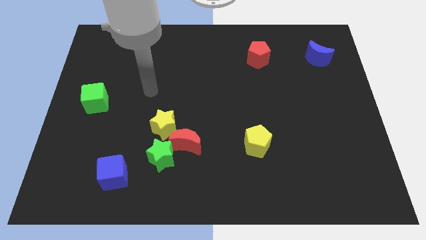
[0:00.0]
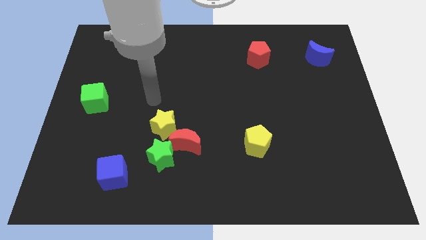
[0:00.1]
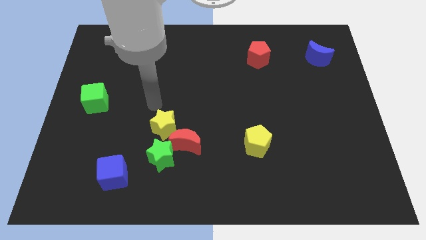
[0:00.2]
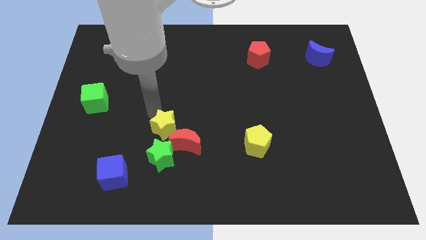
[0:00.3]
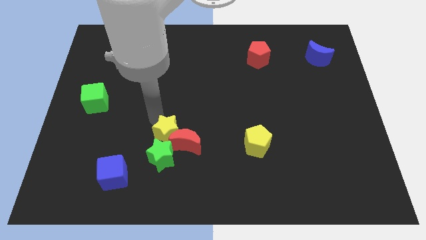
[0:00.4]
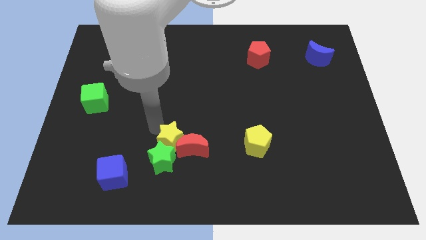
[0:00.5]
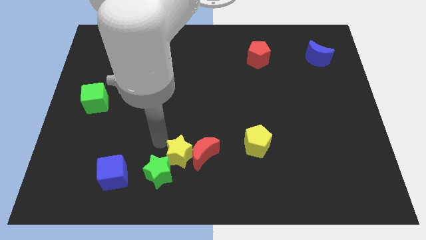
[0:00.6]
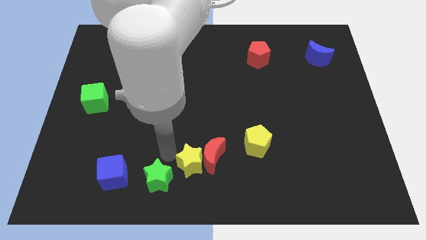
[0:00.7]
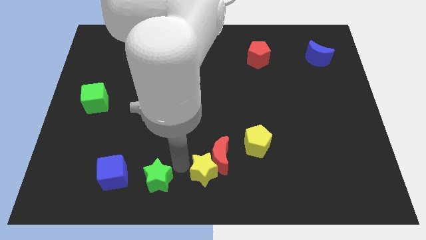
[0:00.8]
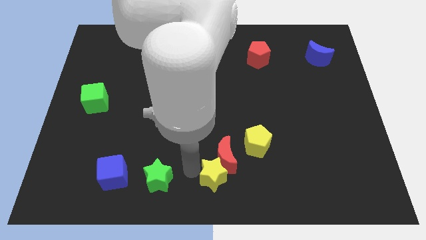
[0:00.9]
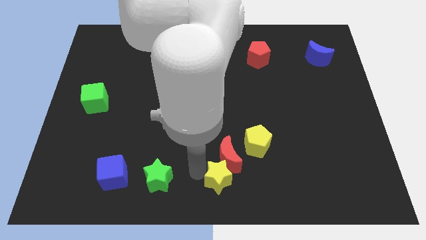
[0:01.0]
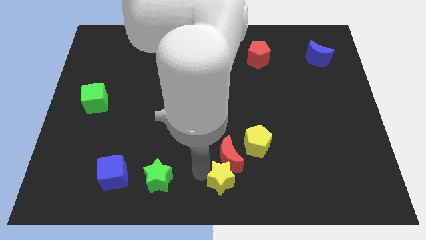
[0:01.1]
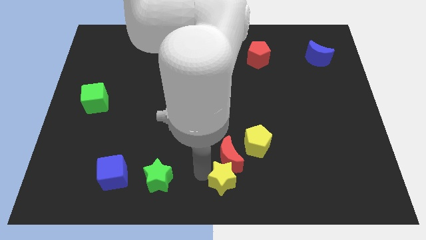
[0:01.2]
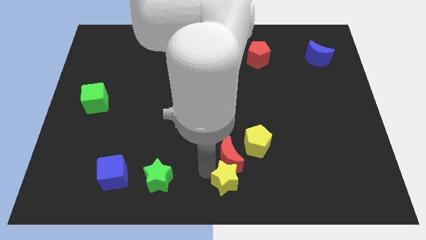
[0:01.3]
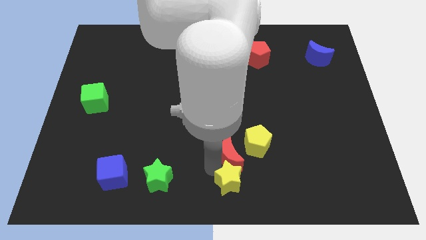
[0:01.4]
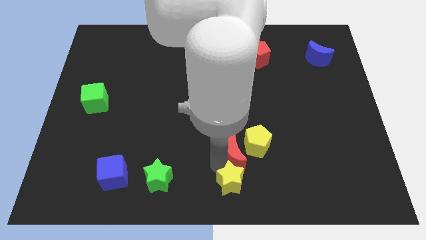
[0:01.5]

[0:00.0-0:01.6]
pull the red moon apart from the green star and yellow star

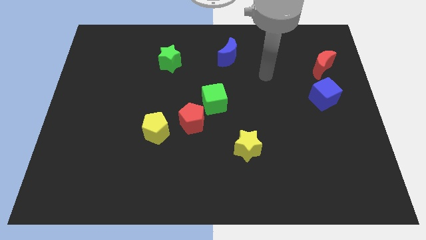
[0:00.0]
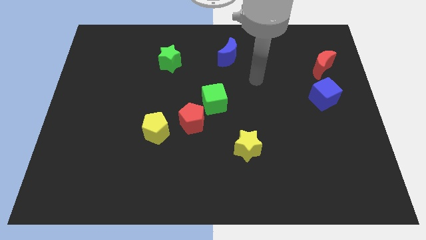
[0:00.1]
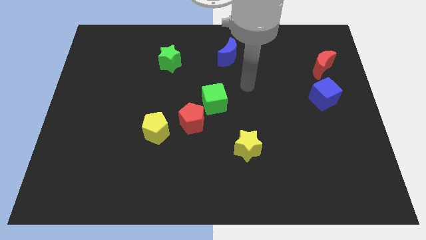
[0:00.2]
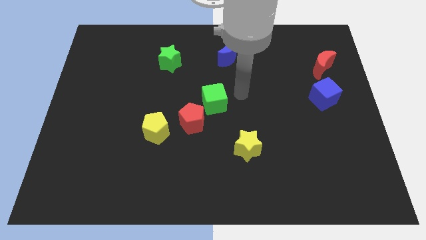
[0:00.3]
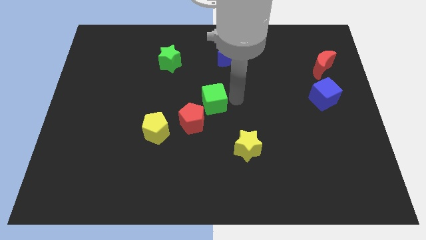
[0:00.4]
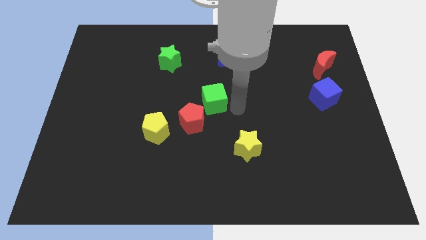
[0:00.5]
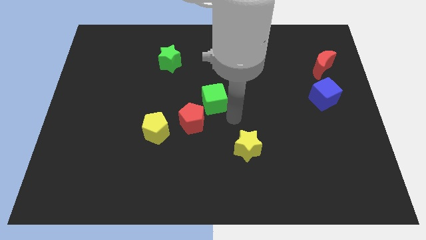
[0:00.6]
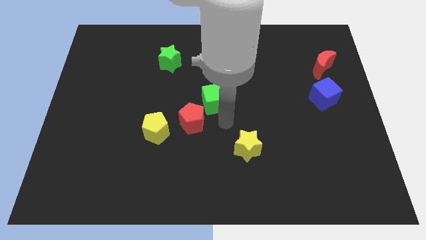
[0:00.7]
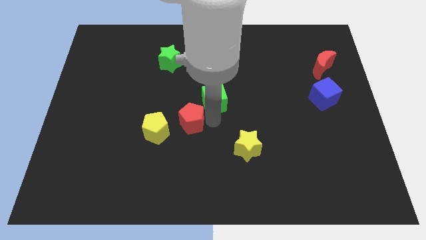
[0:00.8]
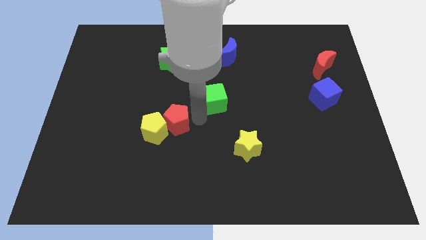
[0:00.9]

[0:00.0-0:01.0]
pull the green cube apart from the red pentagon

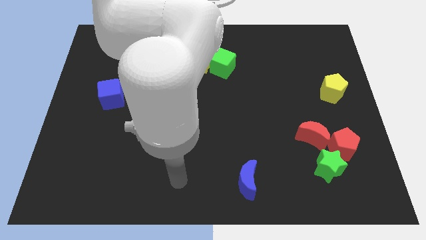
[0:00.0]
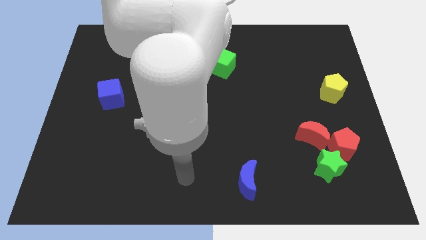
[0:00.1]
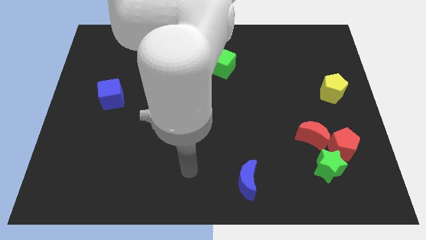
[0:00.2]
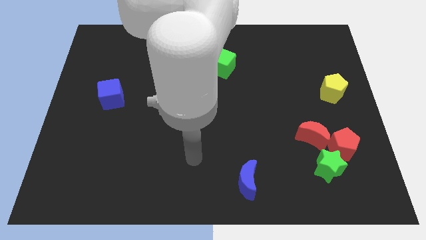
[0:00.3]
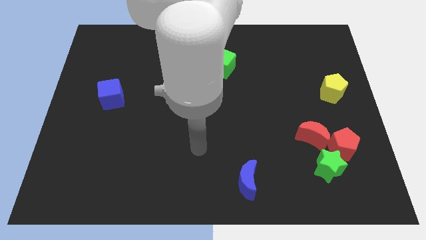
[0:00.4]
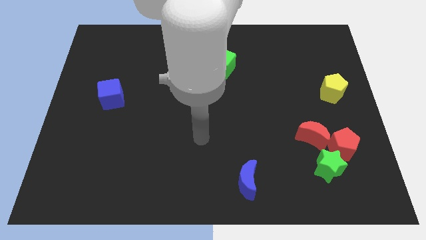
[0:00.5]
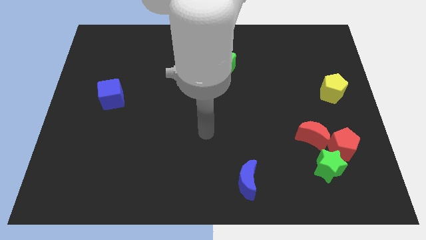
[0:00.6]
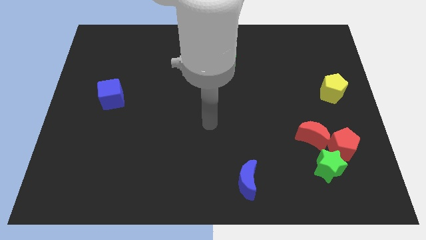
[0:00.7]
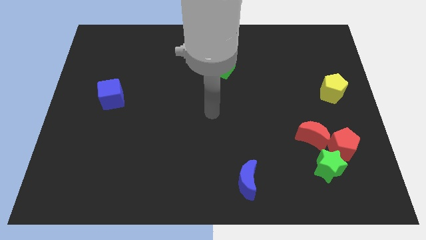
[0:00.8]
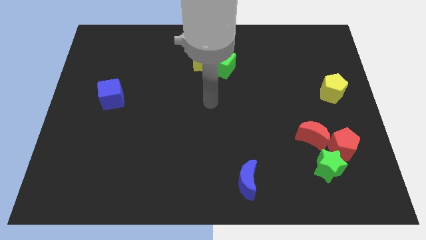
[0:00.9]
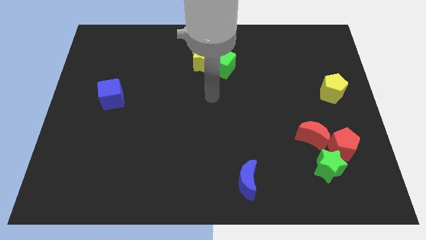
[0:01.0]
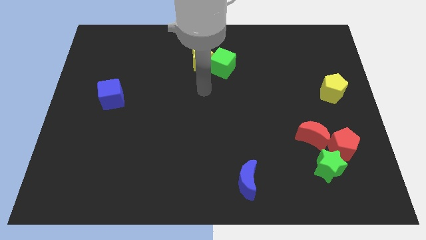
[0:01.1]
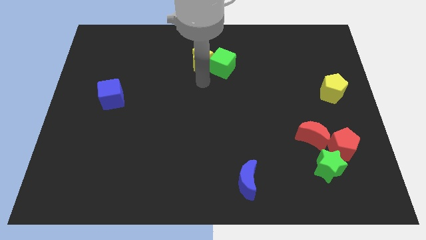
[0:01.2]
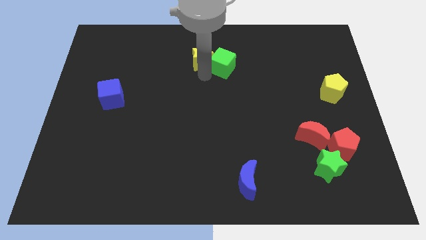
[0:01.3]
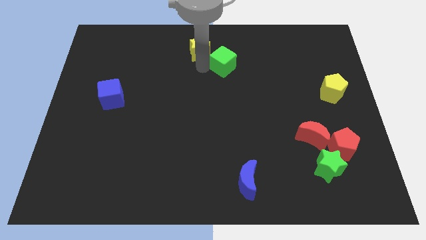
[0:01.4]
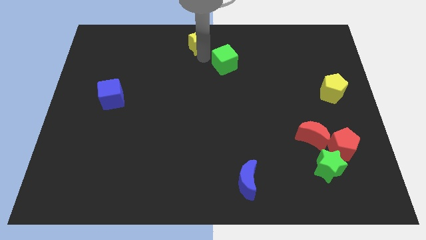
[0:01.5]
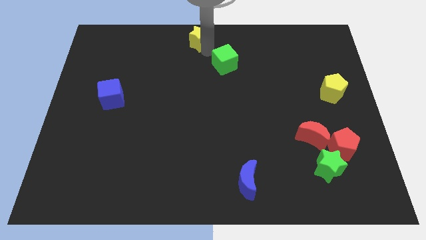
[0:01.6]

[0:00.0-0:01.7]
separate the green cube from the yellow star

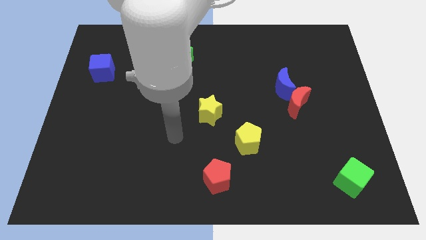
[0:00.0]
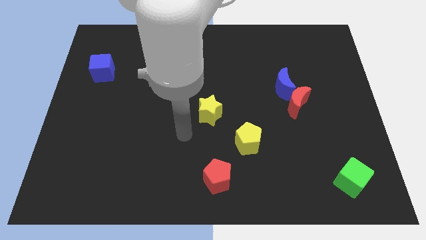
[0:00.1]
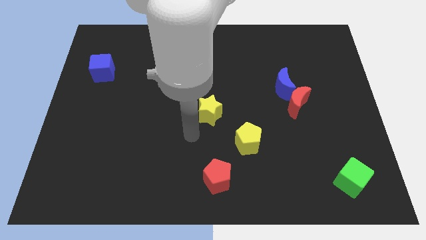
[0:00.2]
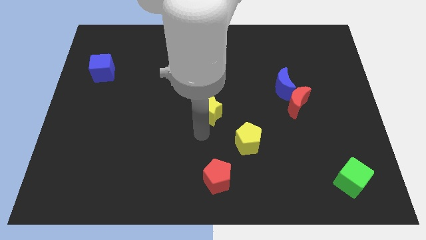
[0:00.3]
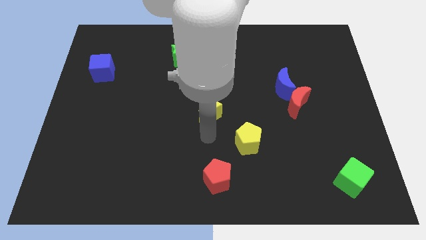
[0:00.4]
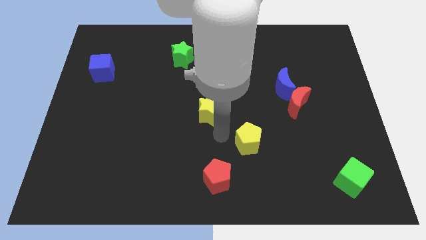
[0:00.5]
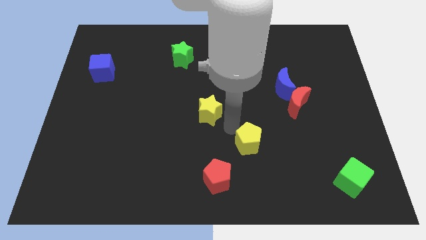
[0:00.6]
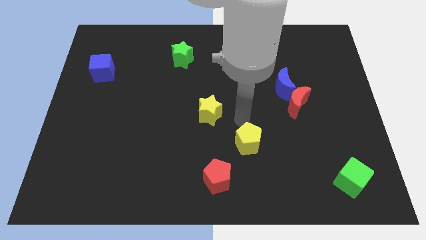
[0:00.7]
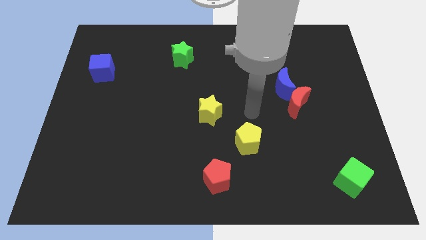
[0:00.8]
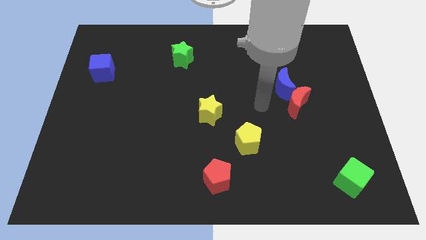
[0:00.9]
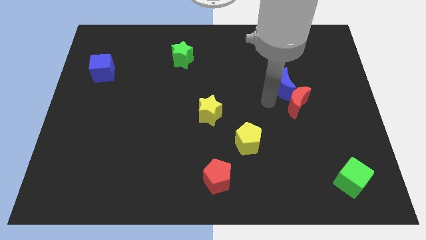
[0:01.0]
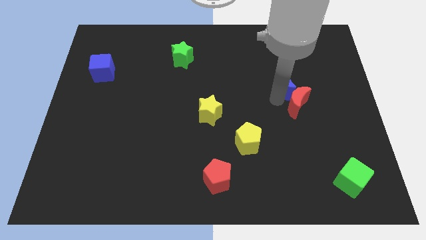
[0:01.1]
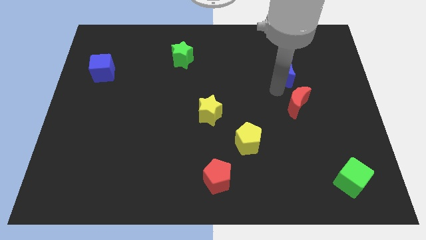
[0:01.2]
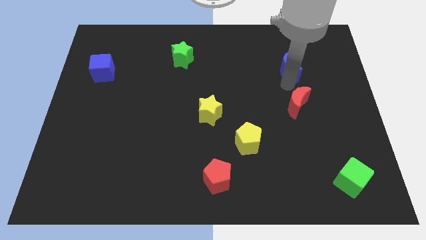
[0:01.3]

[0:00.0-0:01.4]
move the red moon away from the blue moon

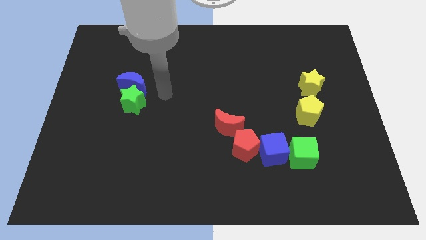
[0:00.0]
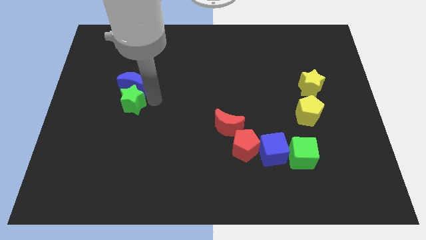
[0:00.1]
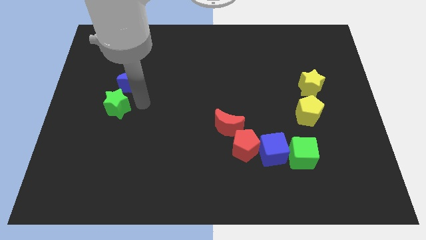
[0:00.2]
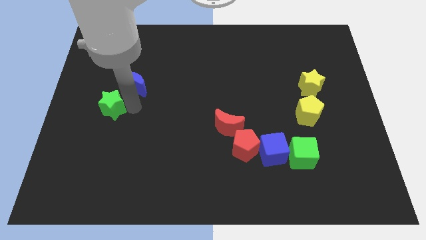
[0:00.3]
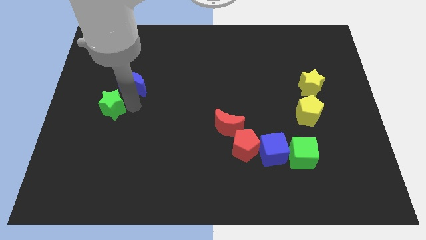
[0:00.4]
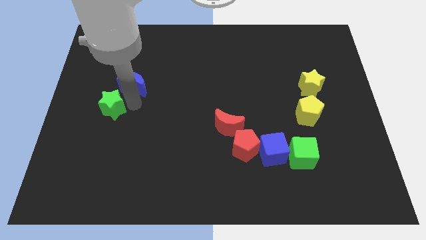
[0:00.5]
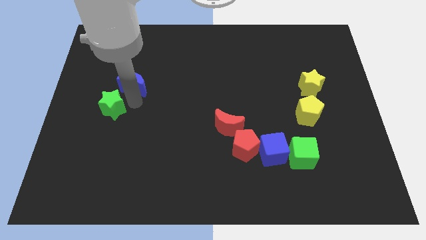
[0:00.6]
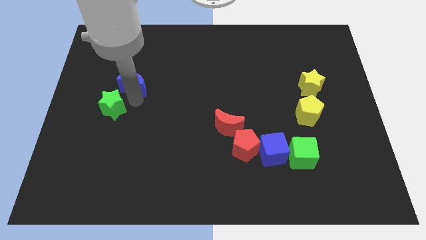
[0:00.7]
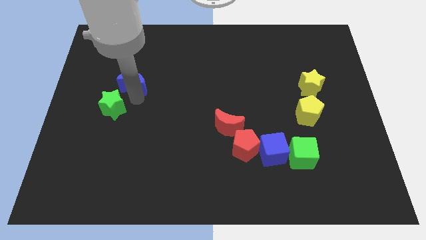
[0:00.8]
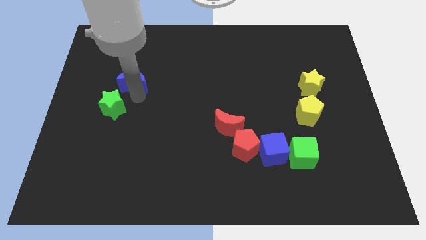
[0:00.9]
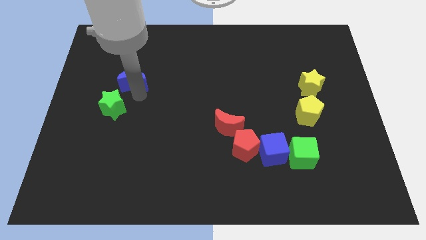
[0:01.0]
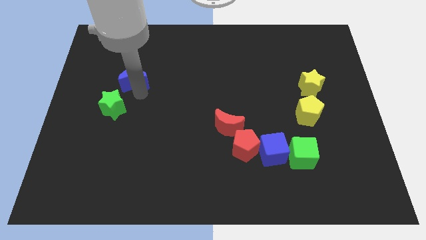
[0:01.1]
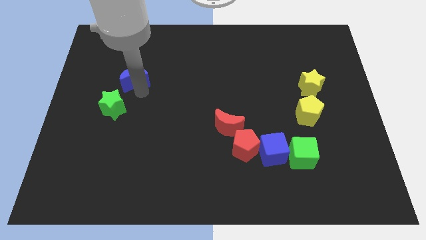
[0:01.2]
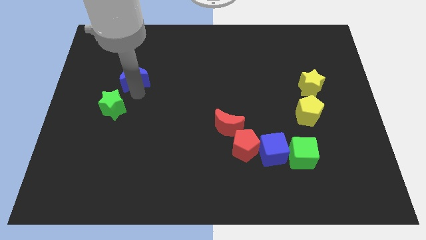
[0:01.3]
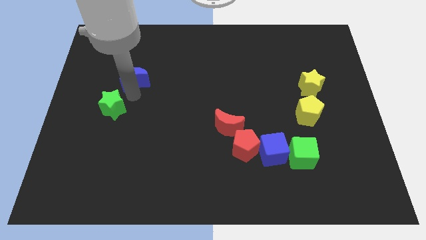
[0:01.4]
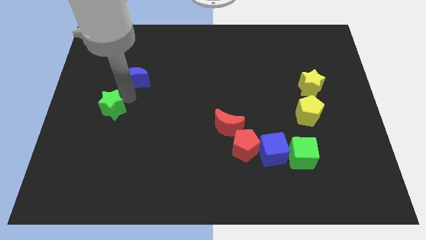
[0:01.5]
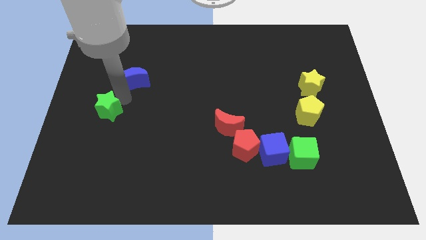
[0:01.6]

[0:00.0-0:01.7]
move the blue moon away from the green star

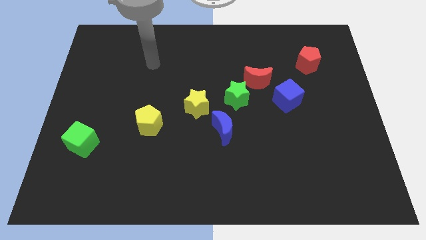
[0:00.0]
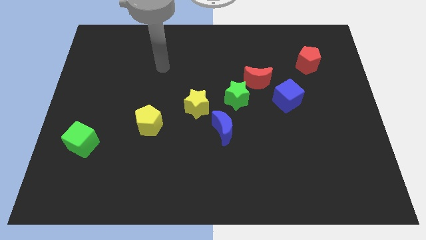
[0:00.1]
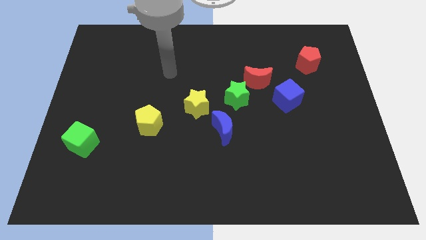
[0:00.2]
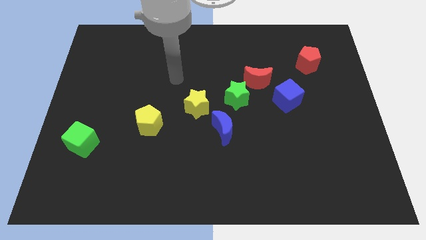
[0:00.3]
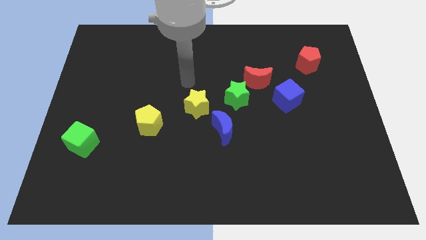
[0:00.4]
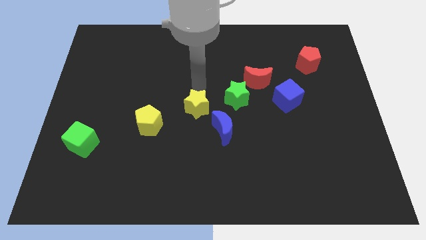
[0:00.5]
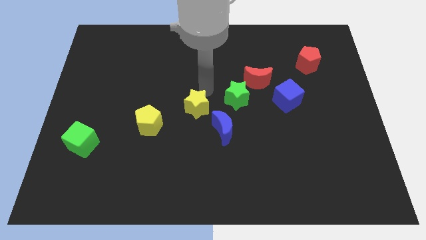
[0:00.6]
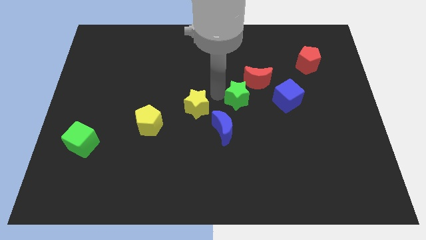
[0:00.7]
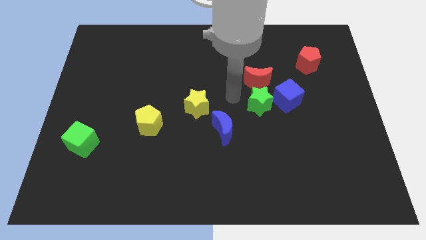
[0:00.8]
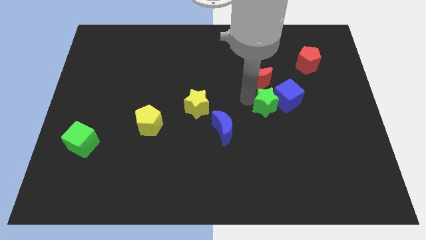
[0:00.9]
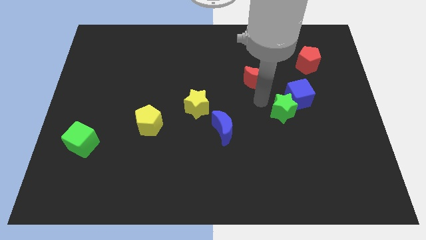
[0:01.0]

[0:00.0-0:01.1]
move the red moon away from the green star and blue cube

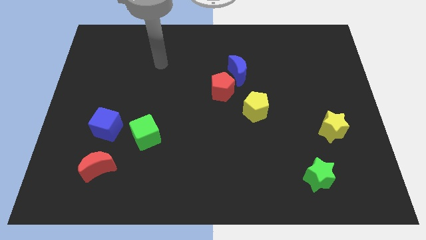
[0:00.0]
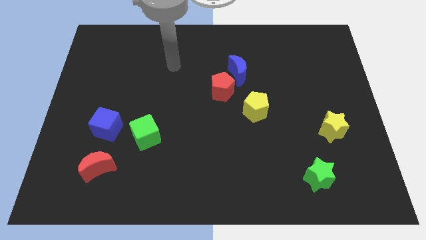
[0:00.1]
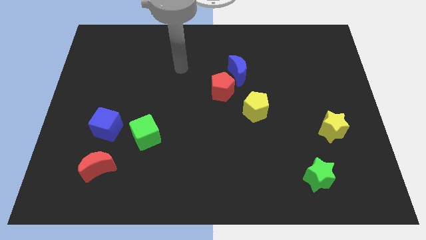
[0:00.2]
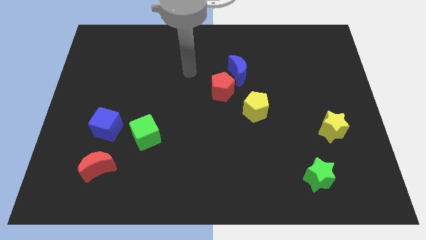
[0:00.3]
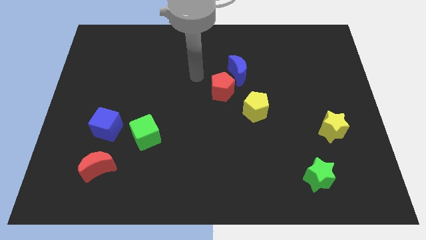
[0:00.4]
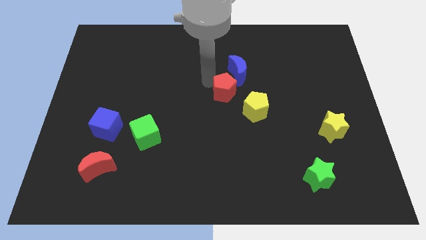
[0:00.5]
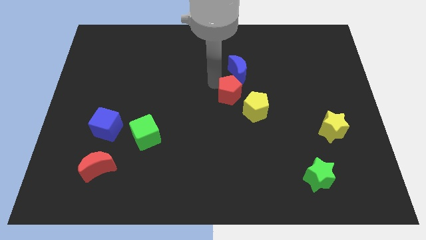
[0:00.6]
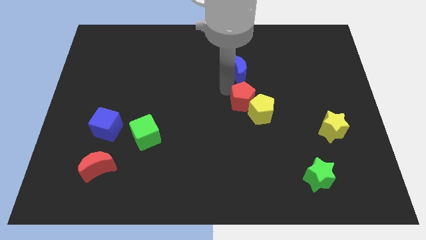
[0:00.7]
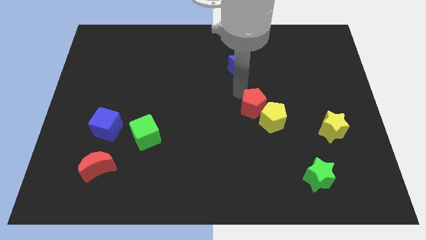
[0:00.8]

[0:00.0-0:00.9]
move the blue moon away from the red pentagon
